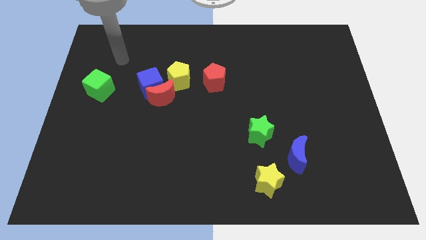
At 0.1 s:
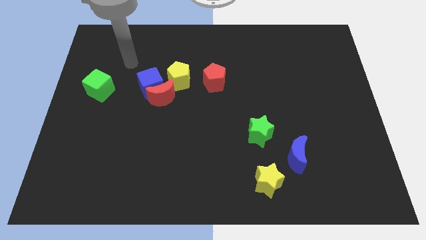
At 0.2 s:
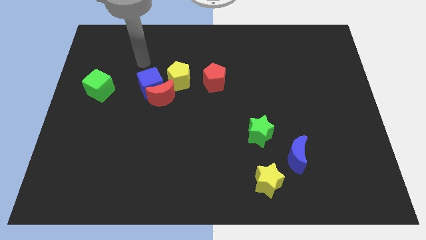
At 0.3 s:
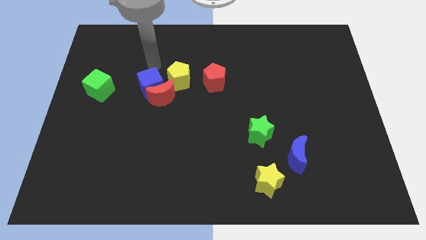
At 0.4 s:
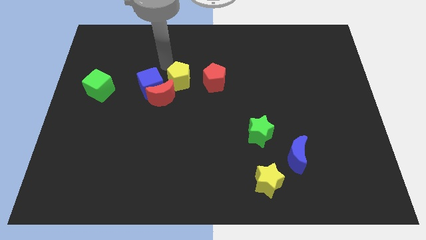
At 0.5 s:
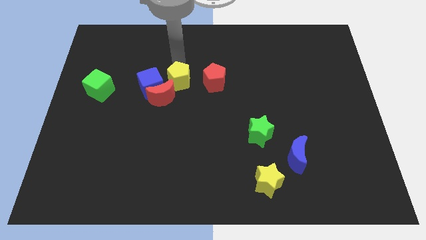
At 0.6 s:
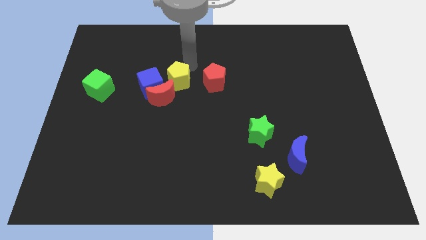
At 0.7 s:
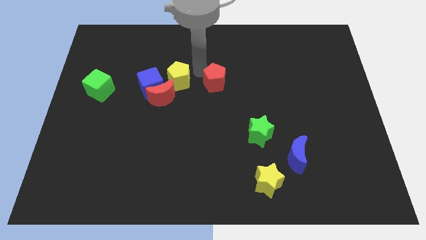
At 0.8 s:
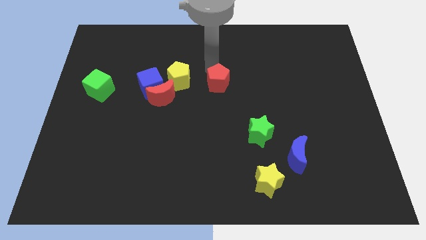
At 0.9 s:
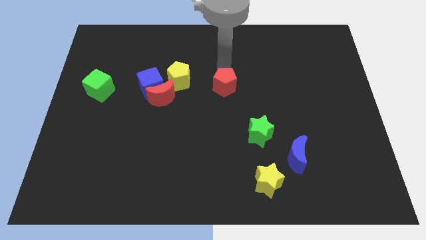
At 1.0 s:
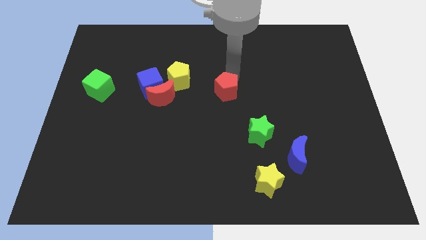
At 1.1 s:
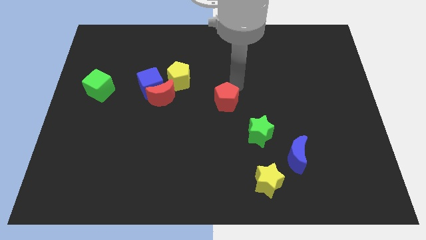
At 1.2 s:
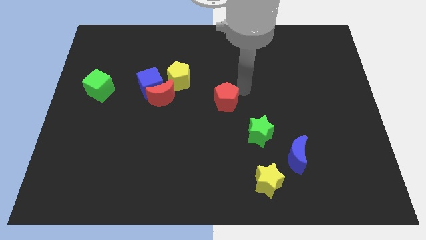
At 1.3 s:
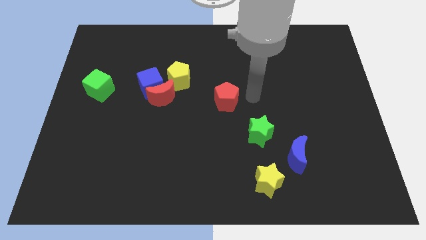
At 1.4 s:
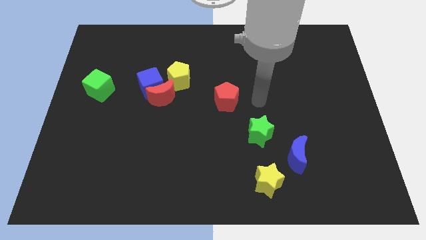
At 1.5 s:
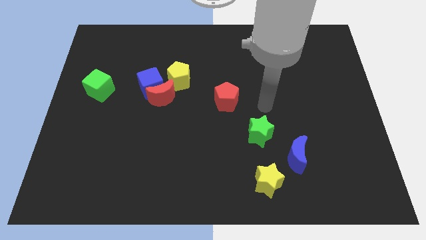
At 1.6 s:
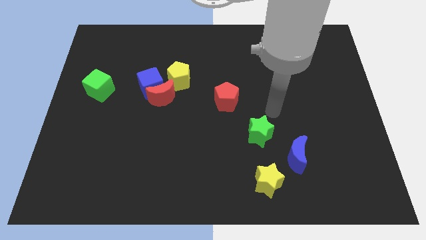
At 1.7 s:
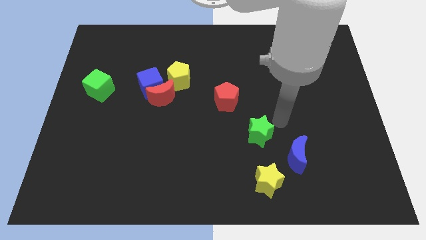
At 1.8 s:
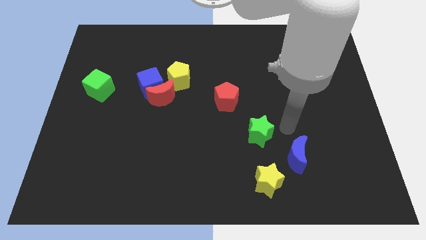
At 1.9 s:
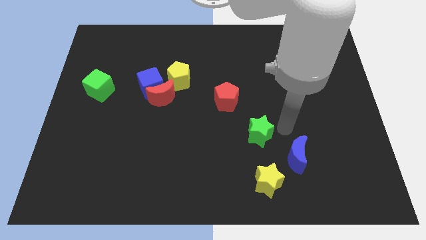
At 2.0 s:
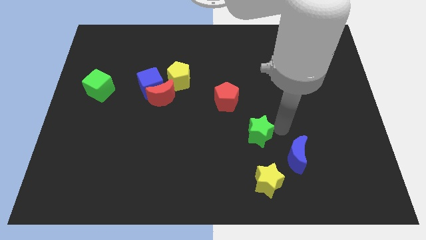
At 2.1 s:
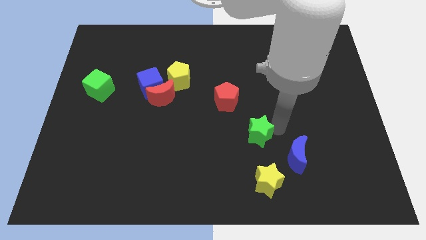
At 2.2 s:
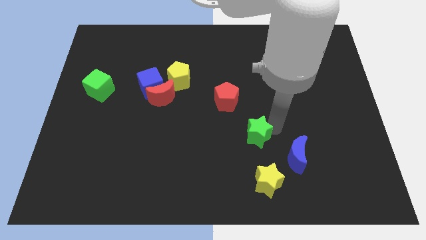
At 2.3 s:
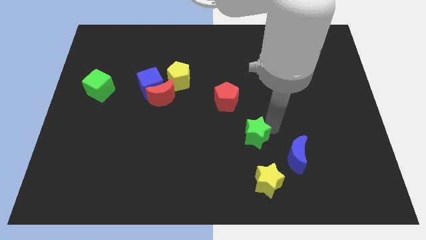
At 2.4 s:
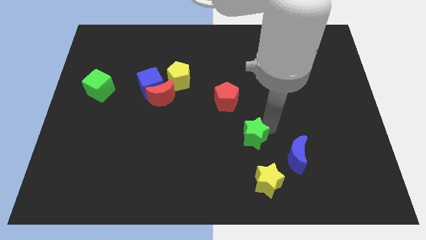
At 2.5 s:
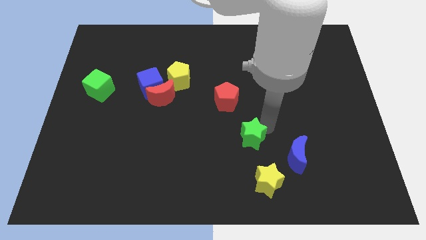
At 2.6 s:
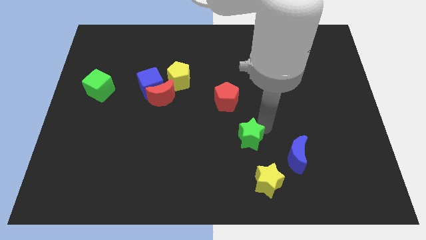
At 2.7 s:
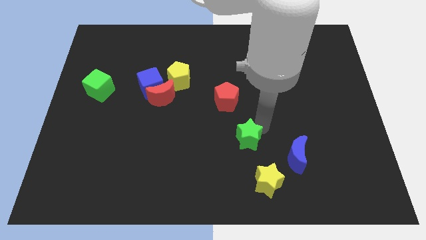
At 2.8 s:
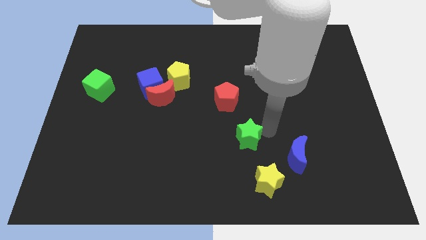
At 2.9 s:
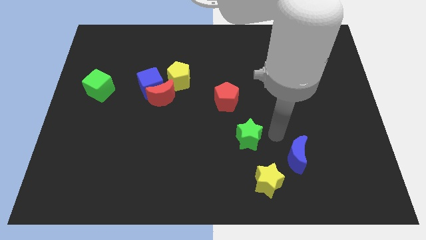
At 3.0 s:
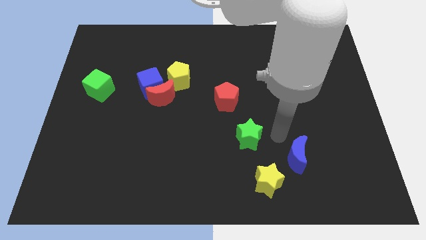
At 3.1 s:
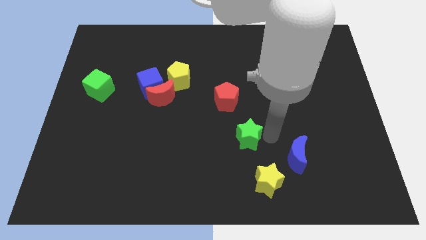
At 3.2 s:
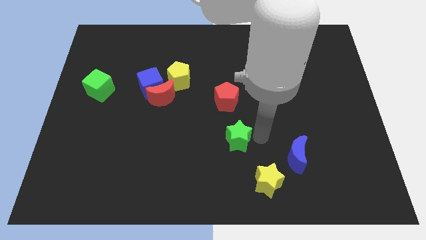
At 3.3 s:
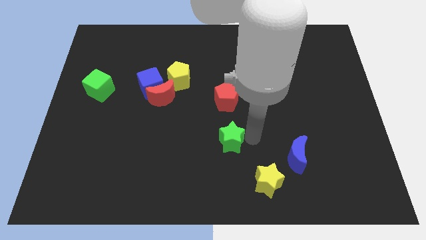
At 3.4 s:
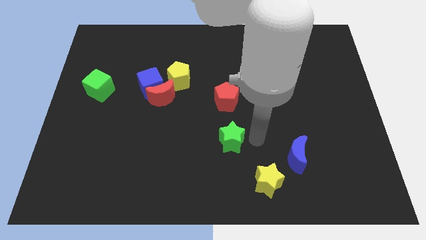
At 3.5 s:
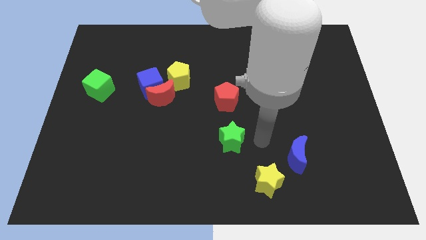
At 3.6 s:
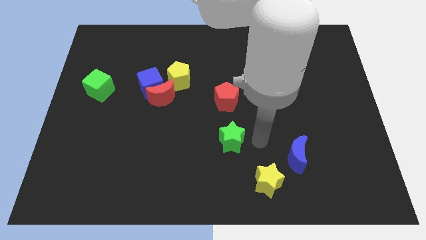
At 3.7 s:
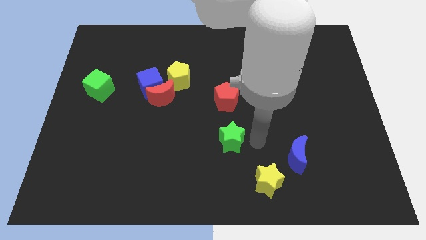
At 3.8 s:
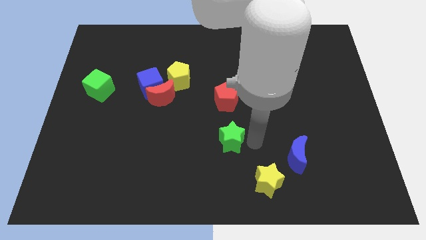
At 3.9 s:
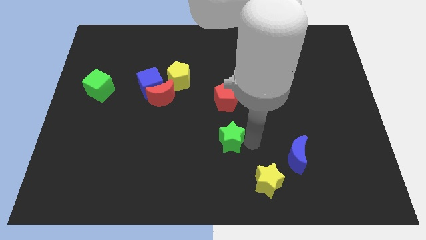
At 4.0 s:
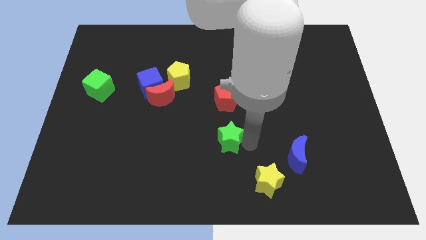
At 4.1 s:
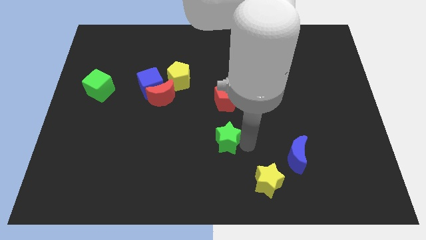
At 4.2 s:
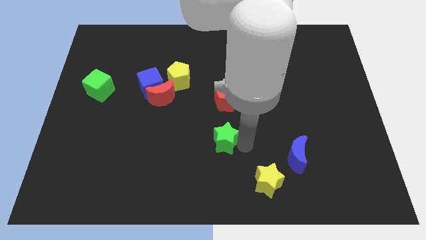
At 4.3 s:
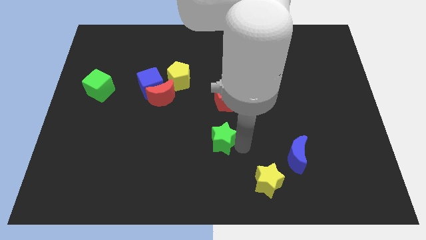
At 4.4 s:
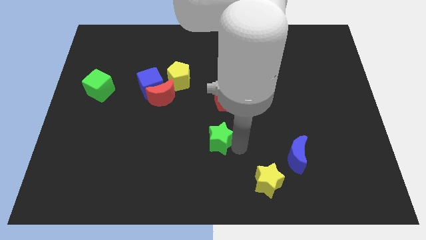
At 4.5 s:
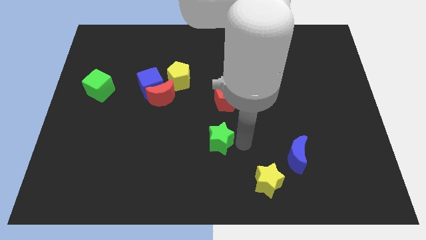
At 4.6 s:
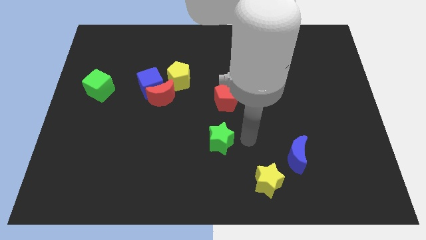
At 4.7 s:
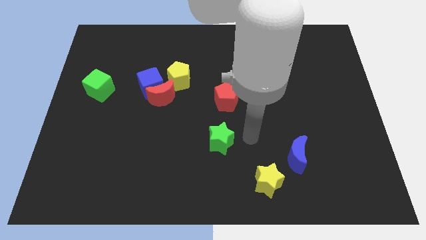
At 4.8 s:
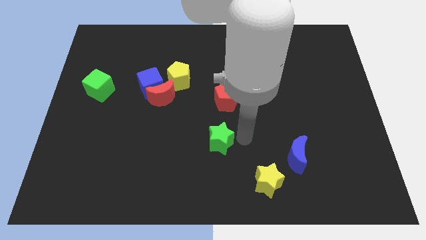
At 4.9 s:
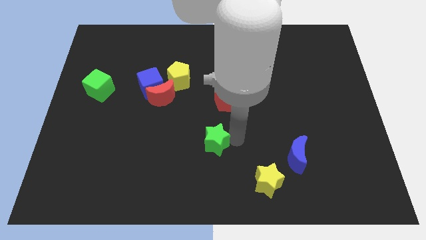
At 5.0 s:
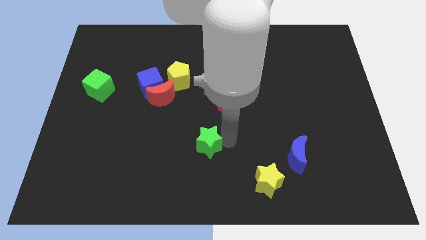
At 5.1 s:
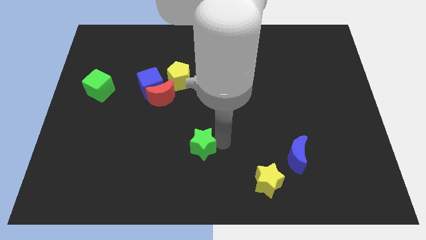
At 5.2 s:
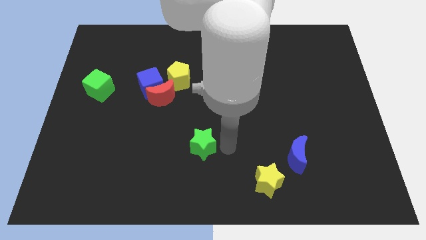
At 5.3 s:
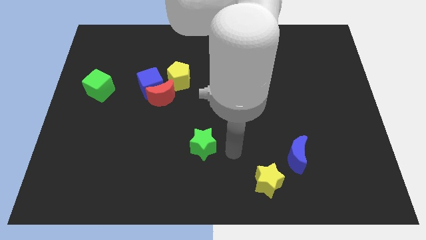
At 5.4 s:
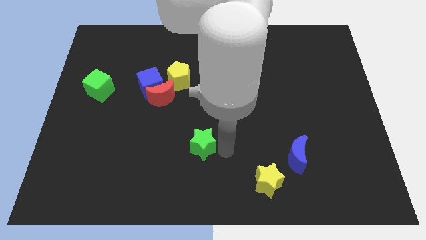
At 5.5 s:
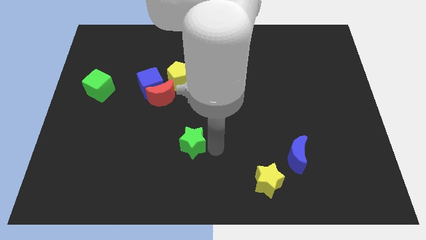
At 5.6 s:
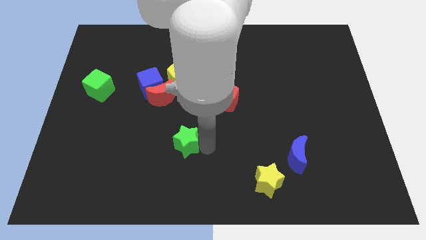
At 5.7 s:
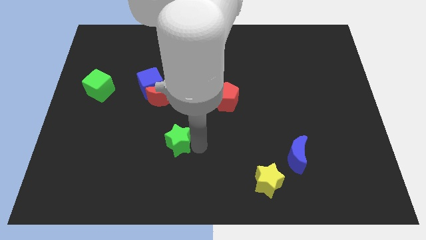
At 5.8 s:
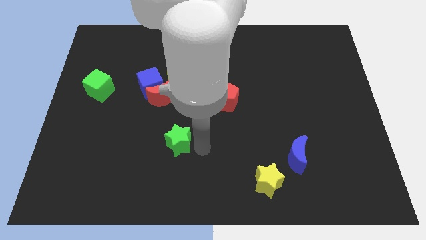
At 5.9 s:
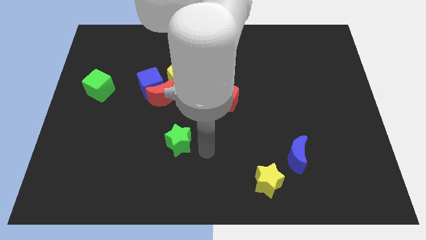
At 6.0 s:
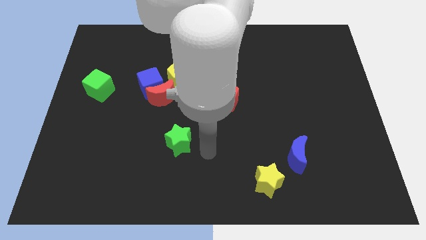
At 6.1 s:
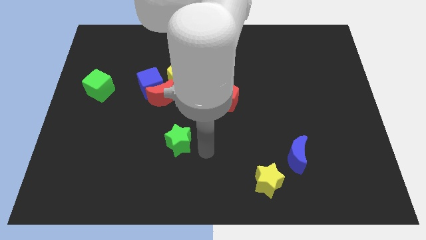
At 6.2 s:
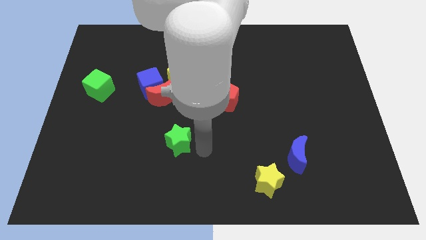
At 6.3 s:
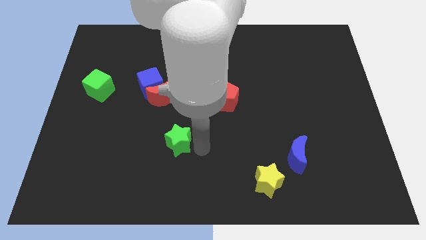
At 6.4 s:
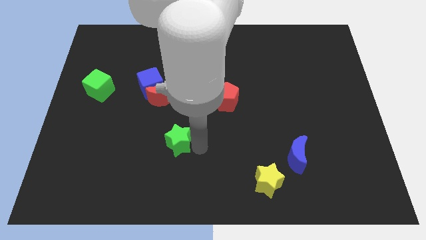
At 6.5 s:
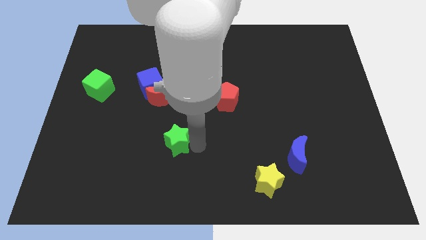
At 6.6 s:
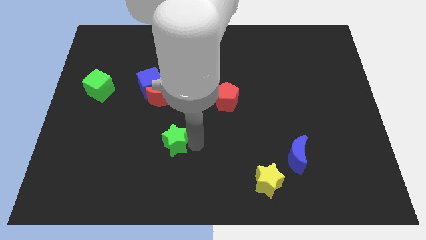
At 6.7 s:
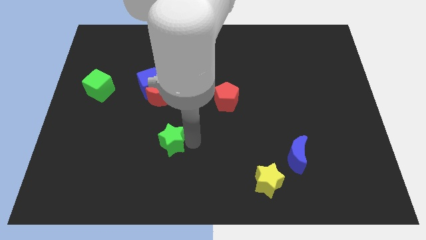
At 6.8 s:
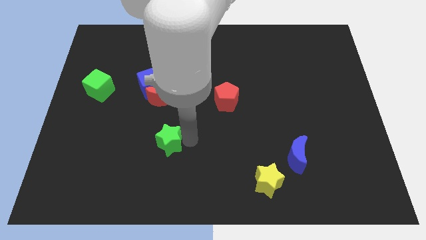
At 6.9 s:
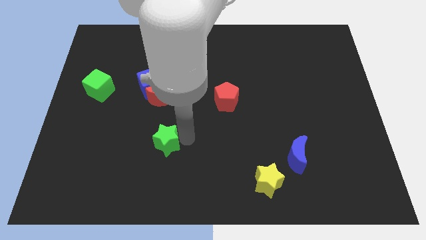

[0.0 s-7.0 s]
slide the green star to the left

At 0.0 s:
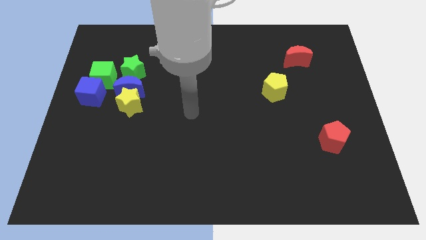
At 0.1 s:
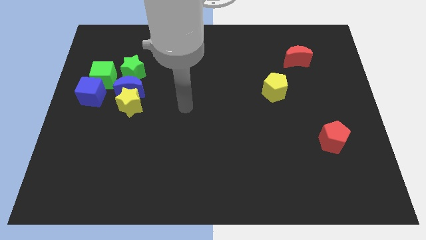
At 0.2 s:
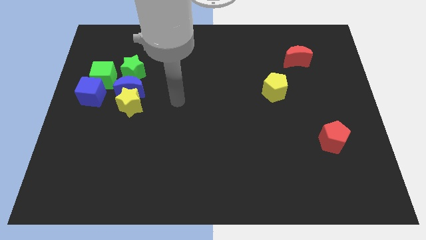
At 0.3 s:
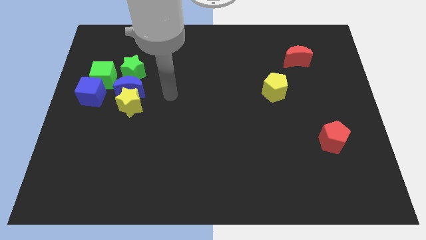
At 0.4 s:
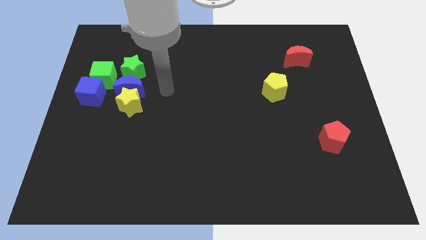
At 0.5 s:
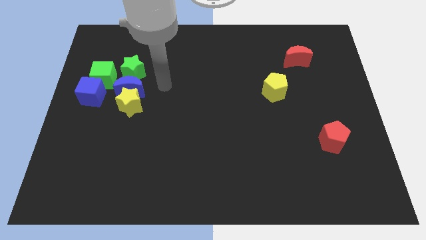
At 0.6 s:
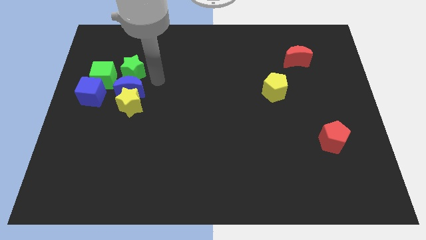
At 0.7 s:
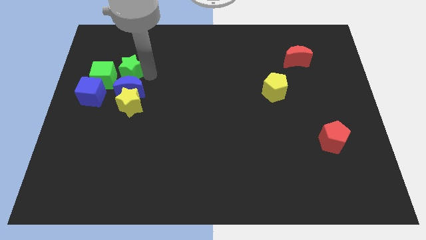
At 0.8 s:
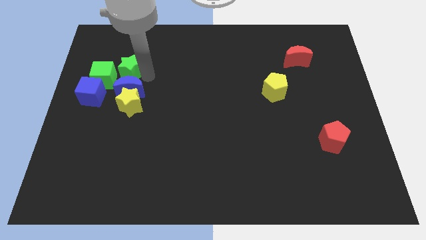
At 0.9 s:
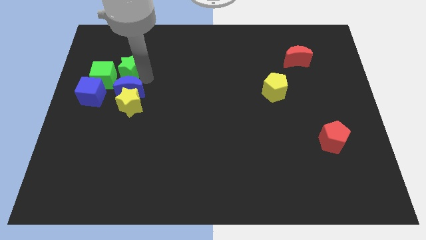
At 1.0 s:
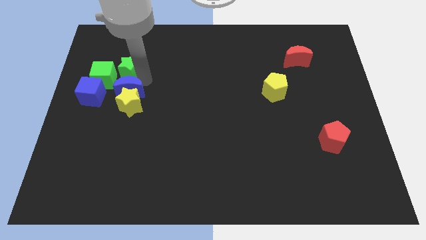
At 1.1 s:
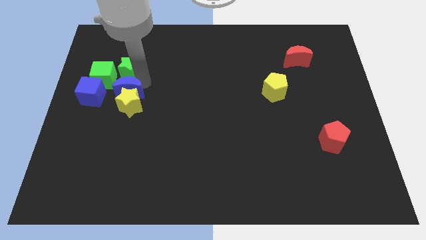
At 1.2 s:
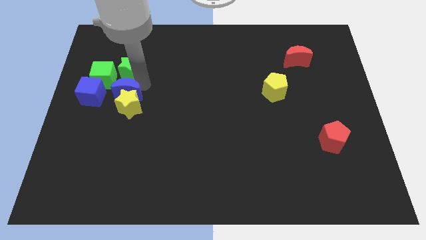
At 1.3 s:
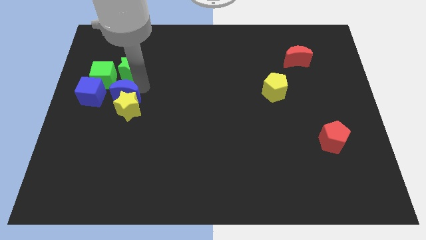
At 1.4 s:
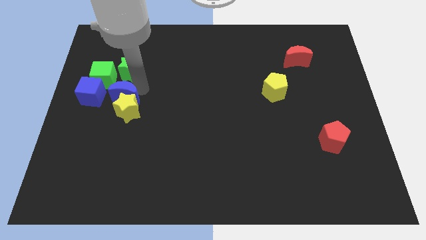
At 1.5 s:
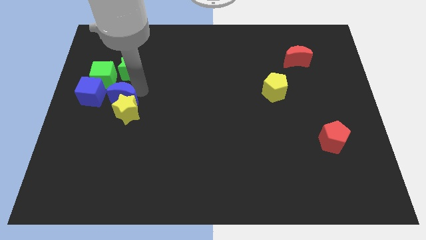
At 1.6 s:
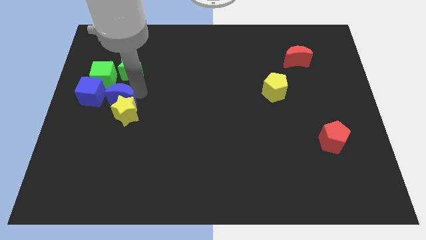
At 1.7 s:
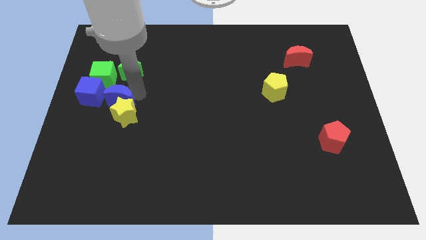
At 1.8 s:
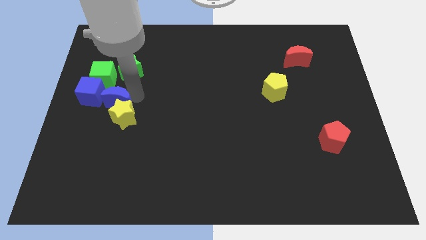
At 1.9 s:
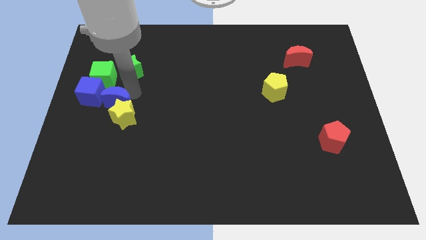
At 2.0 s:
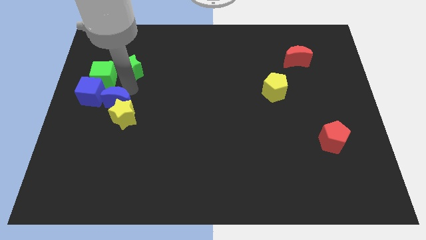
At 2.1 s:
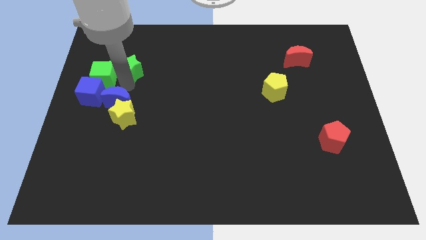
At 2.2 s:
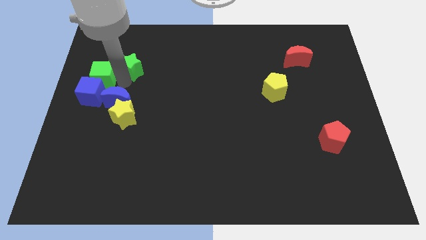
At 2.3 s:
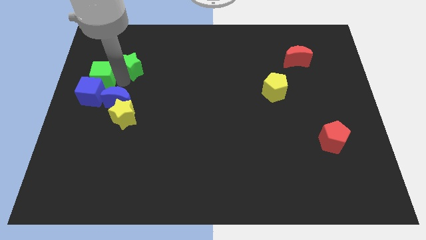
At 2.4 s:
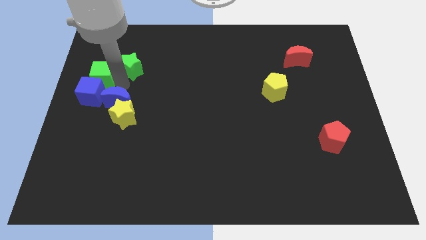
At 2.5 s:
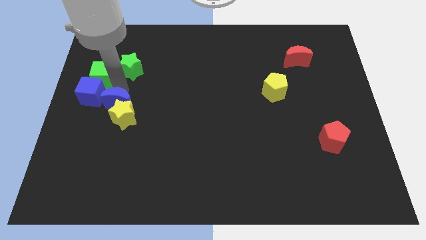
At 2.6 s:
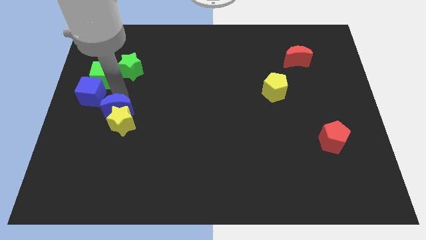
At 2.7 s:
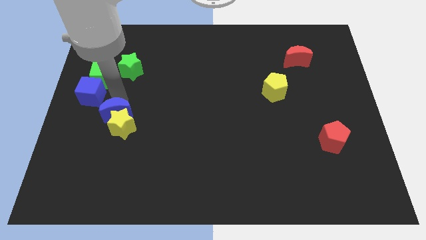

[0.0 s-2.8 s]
slightly push the blue moon down
